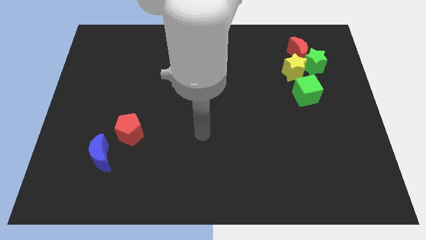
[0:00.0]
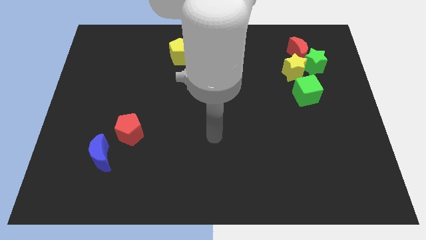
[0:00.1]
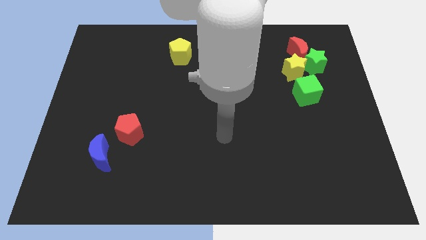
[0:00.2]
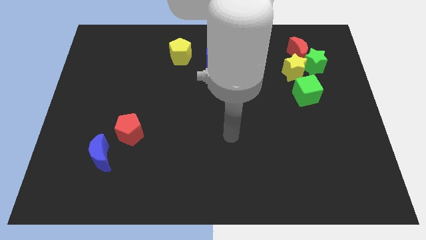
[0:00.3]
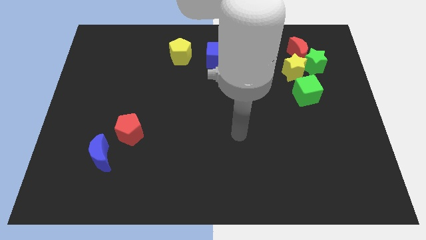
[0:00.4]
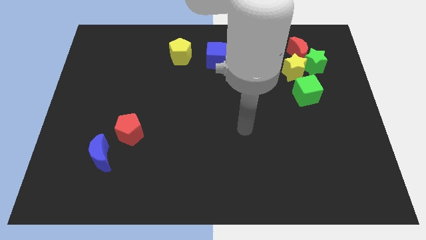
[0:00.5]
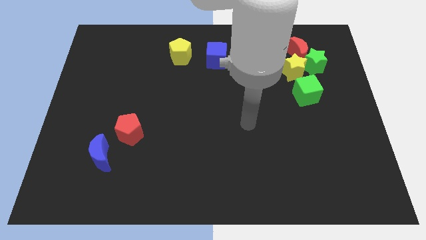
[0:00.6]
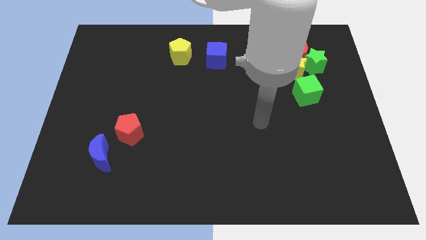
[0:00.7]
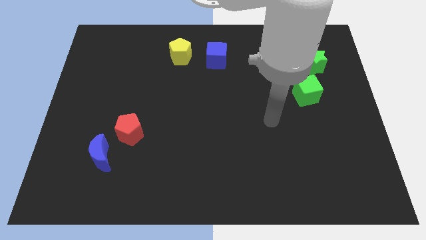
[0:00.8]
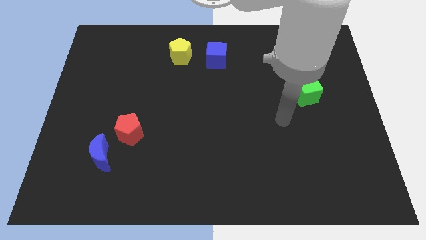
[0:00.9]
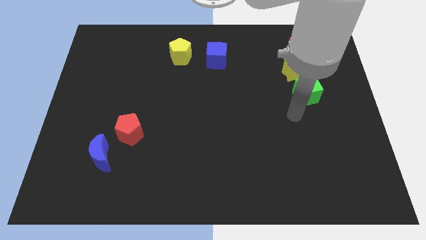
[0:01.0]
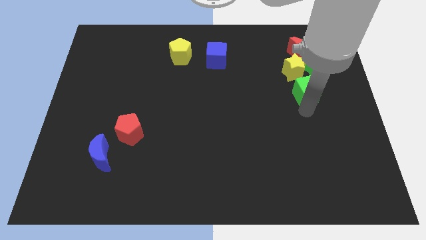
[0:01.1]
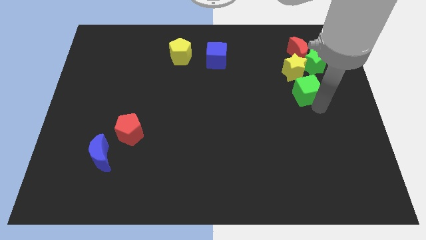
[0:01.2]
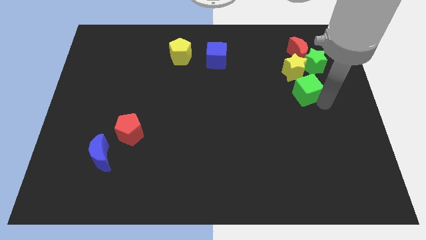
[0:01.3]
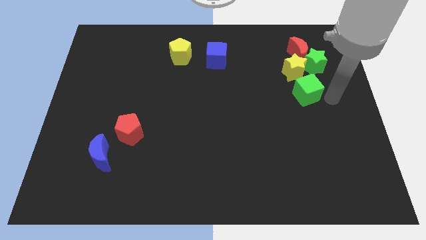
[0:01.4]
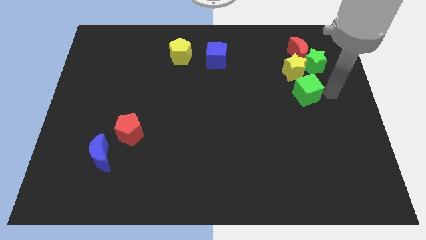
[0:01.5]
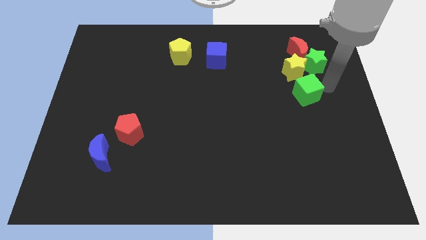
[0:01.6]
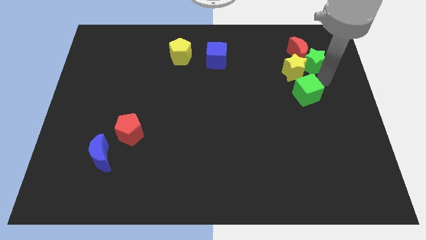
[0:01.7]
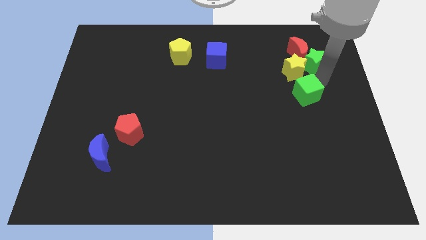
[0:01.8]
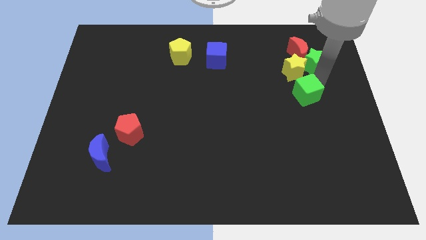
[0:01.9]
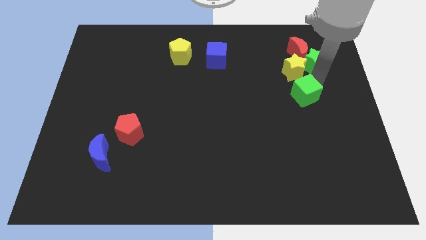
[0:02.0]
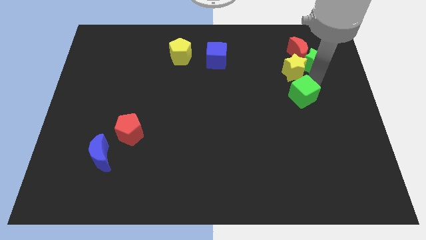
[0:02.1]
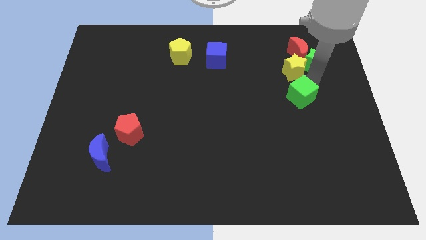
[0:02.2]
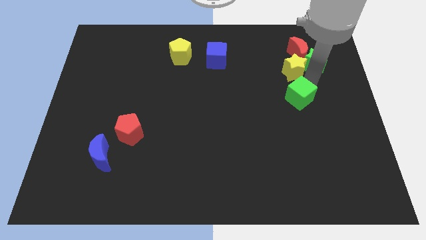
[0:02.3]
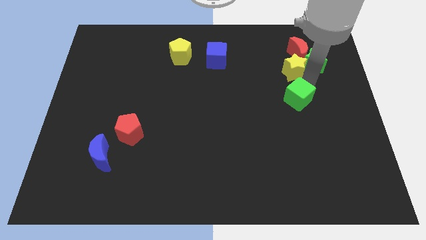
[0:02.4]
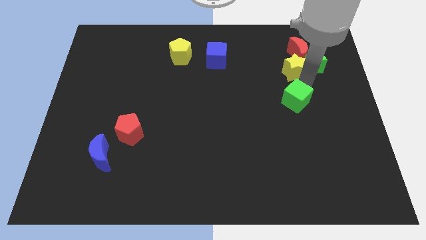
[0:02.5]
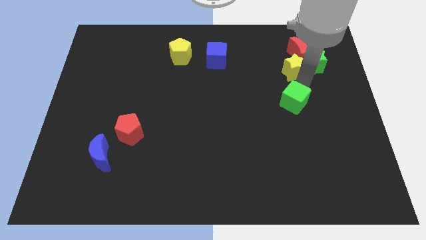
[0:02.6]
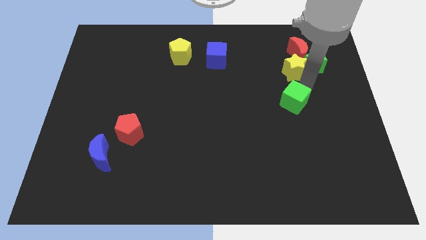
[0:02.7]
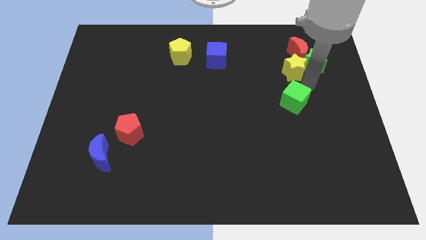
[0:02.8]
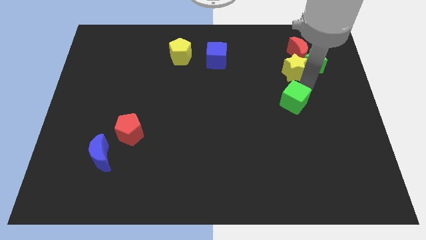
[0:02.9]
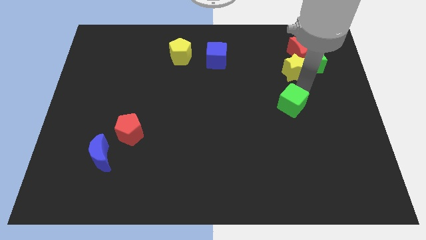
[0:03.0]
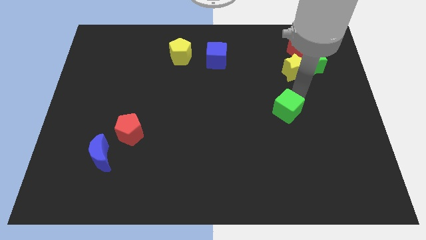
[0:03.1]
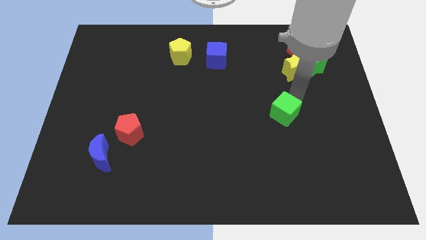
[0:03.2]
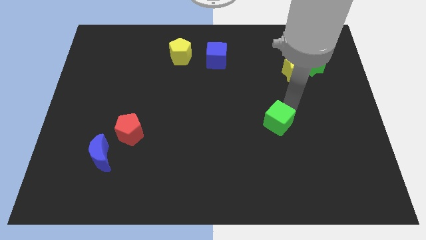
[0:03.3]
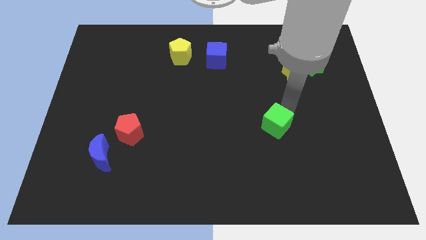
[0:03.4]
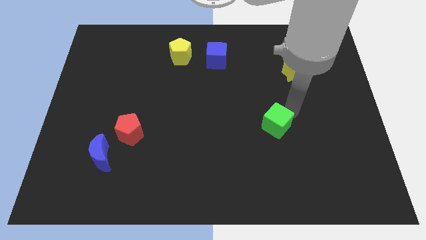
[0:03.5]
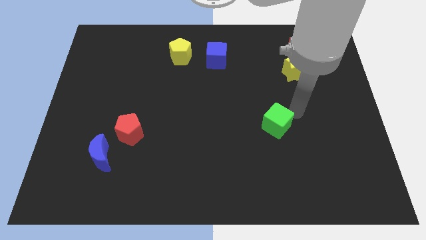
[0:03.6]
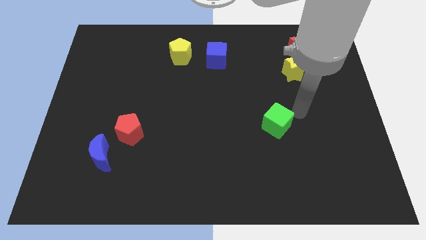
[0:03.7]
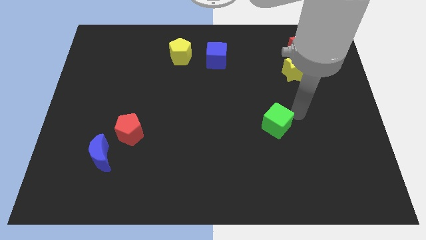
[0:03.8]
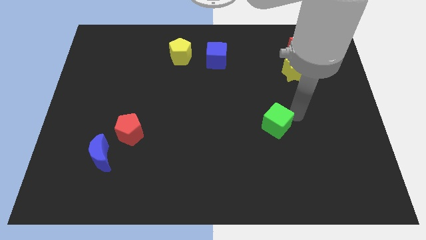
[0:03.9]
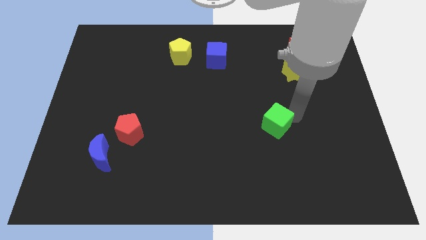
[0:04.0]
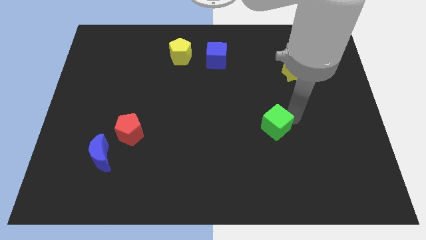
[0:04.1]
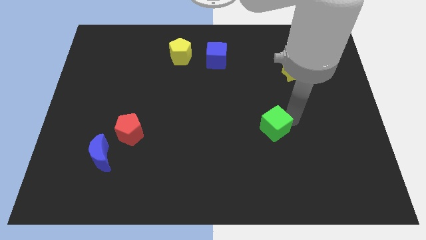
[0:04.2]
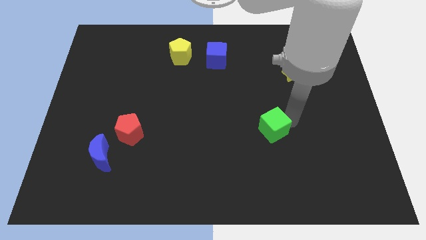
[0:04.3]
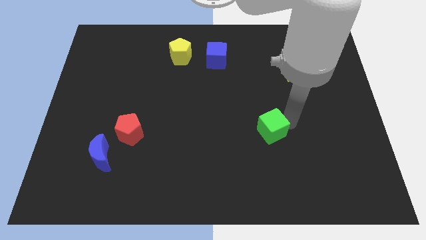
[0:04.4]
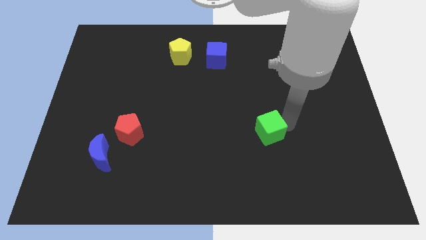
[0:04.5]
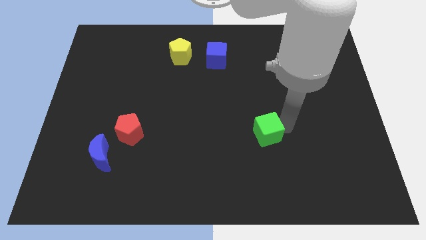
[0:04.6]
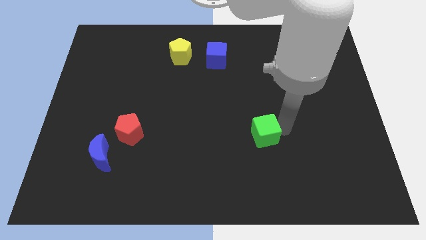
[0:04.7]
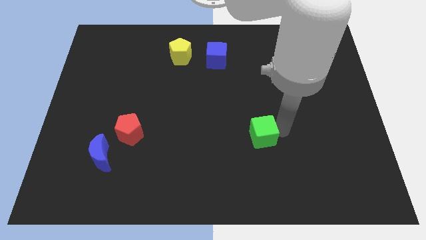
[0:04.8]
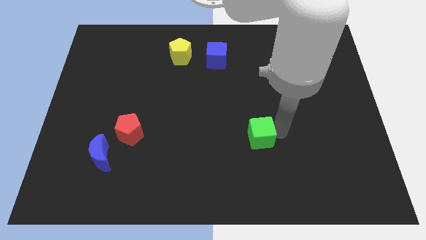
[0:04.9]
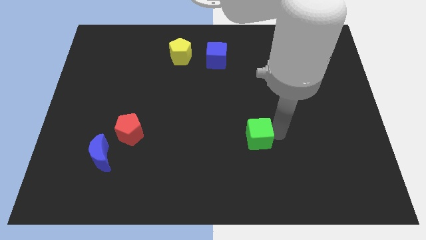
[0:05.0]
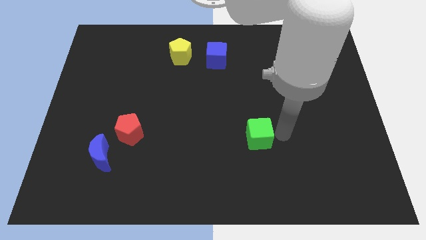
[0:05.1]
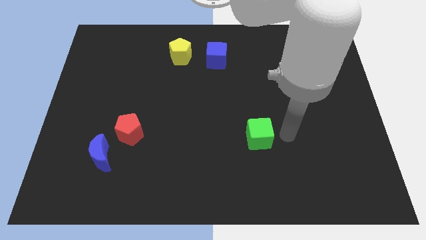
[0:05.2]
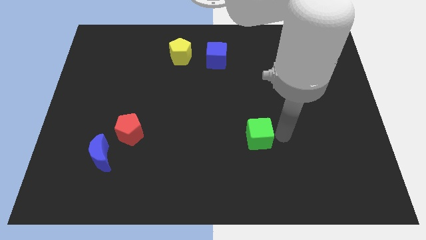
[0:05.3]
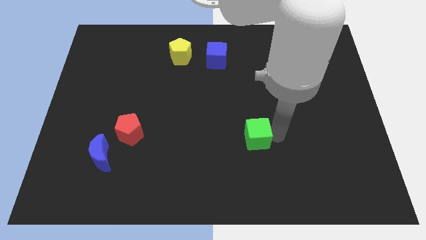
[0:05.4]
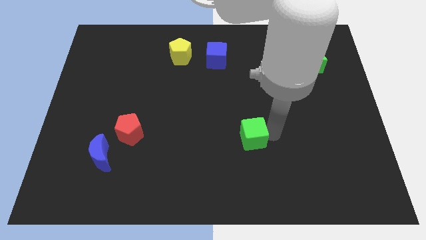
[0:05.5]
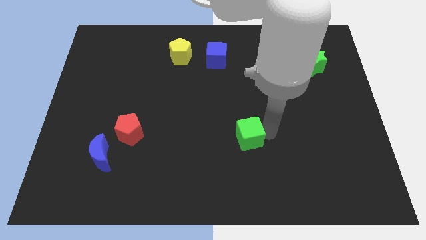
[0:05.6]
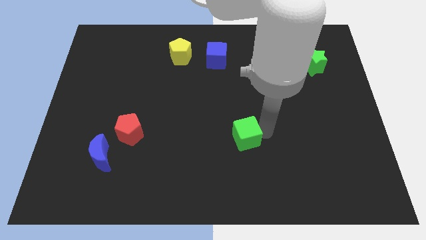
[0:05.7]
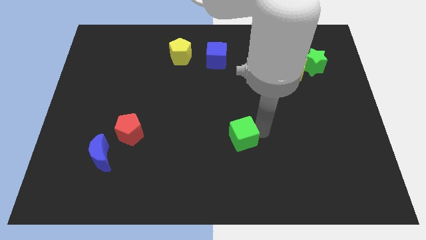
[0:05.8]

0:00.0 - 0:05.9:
push the green cube downwards and then left

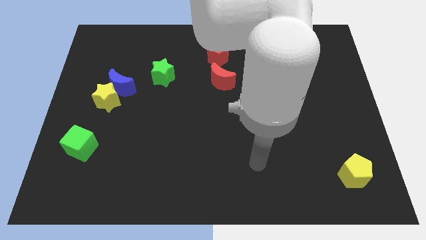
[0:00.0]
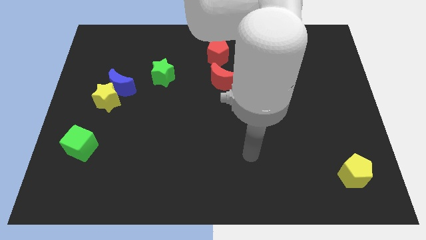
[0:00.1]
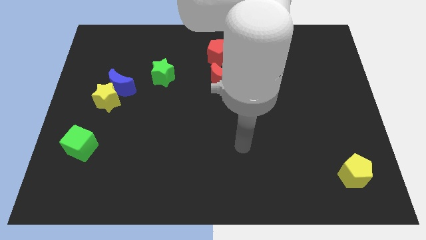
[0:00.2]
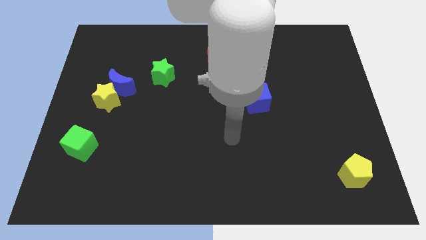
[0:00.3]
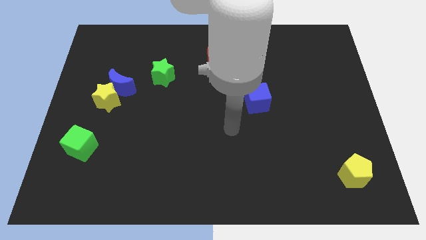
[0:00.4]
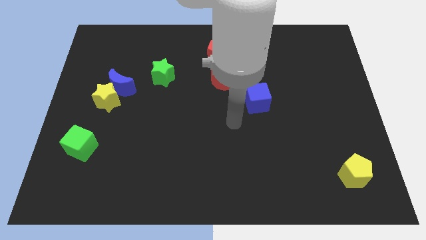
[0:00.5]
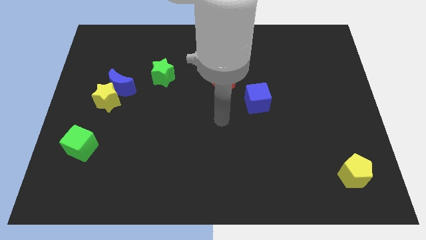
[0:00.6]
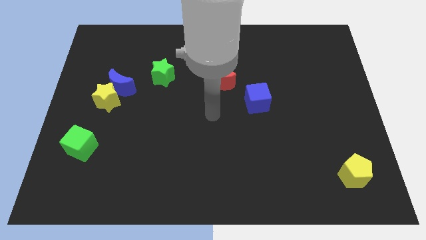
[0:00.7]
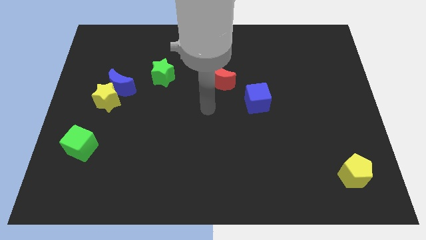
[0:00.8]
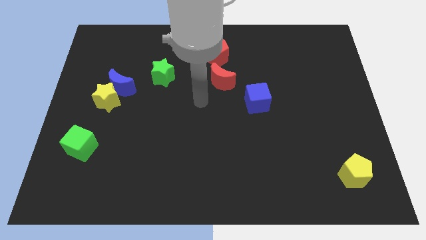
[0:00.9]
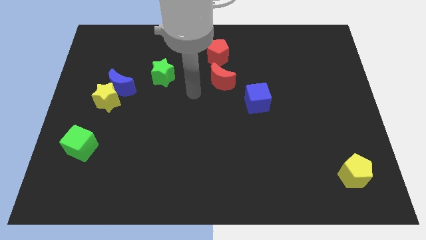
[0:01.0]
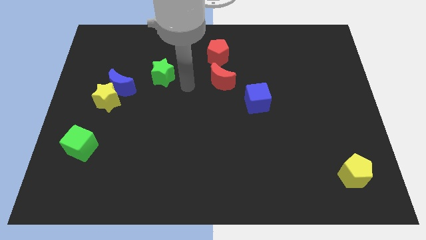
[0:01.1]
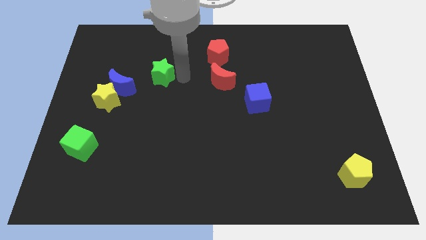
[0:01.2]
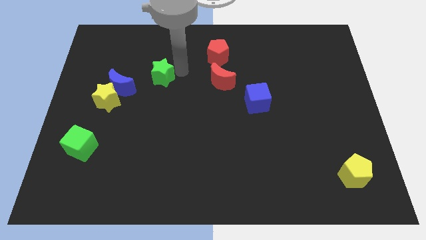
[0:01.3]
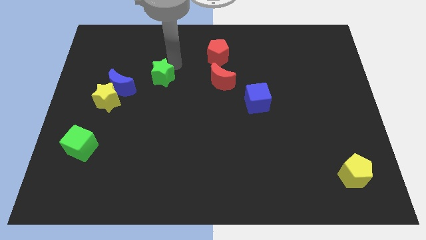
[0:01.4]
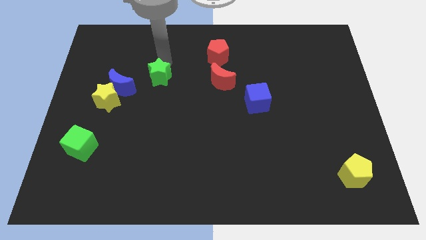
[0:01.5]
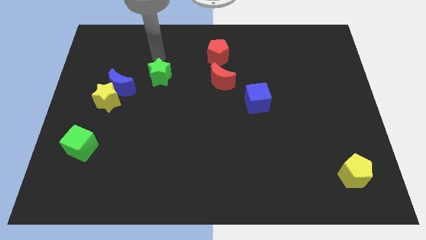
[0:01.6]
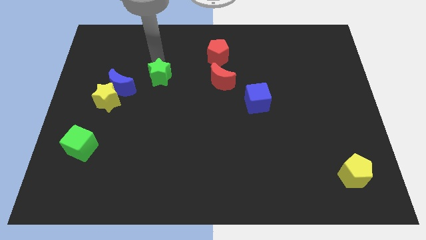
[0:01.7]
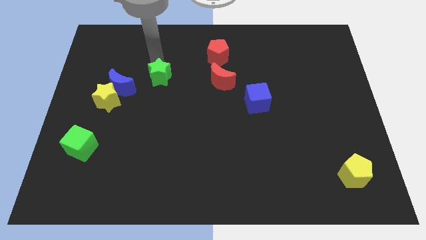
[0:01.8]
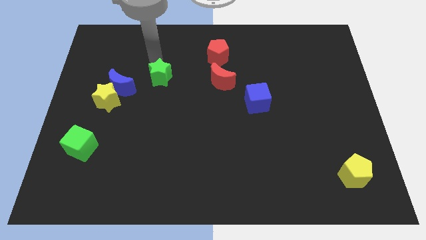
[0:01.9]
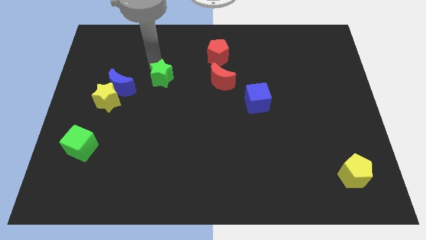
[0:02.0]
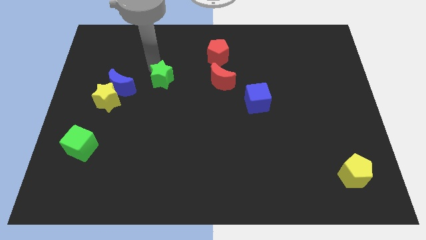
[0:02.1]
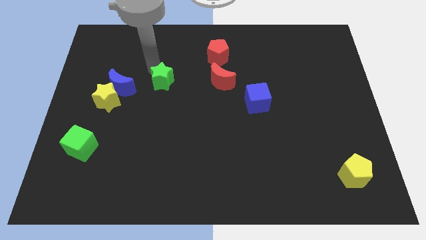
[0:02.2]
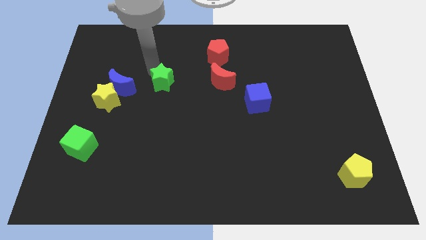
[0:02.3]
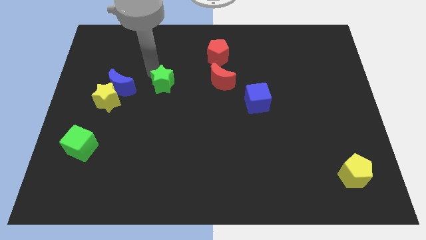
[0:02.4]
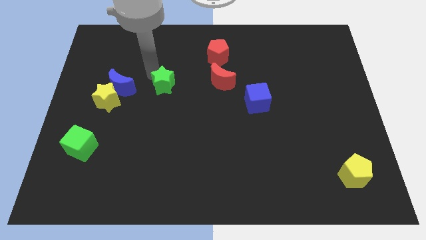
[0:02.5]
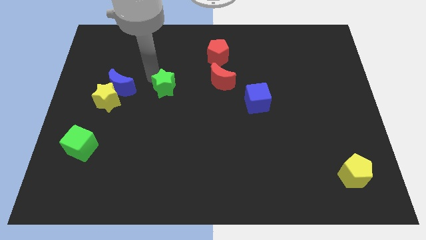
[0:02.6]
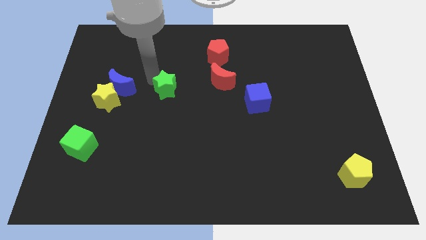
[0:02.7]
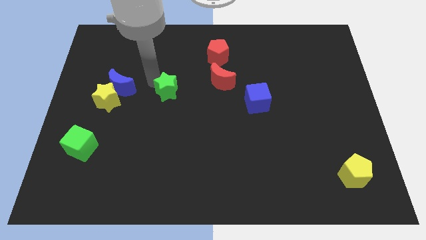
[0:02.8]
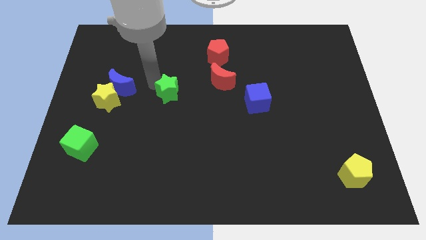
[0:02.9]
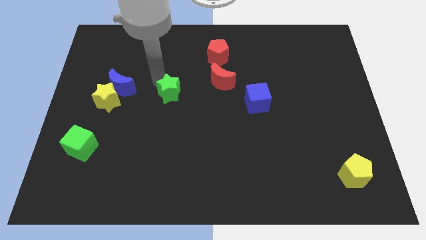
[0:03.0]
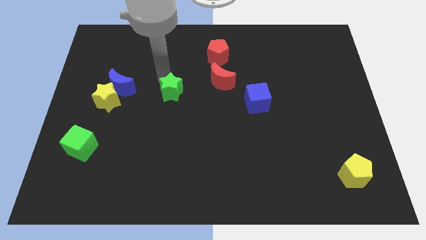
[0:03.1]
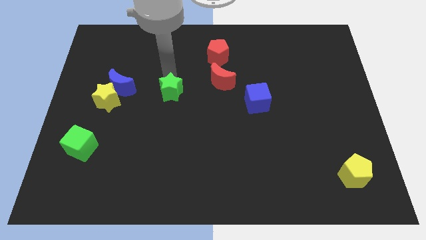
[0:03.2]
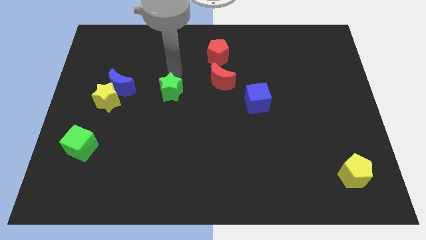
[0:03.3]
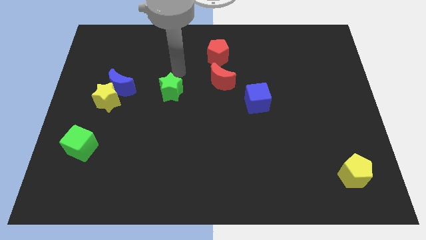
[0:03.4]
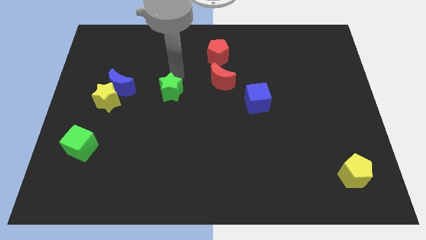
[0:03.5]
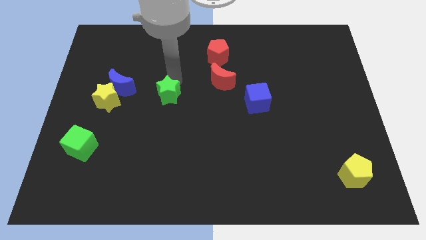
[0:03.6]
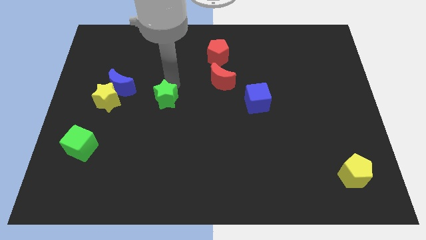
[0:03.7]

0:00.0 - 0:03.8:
move the green star down a little bit
